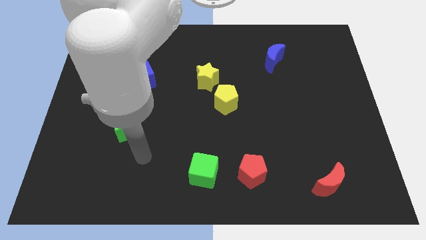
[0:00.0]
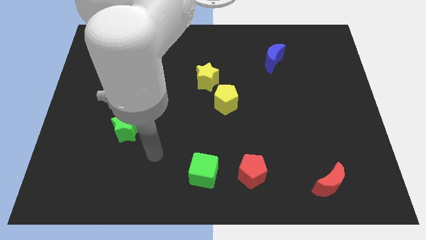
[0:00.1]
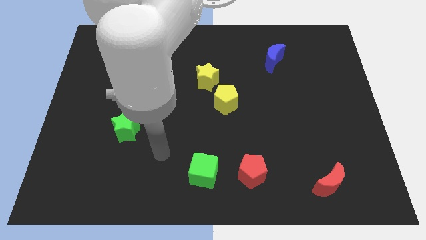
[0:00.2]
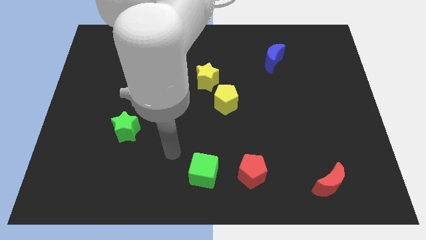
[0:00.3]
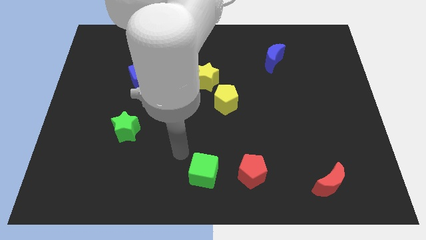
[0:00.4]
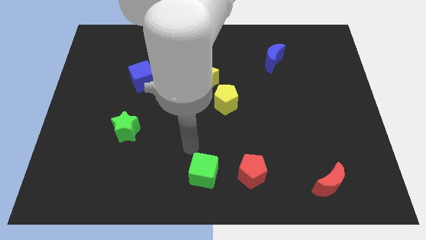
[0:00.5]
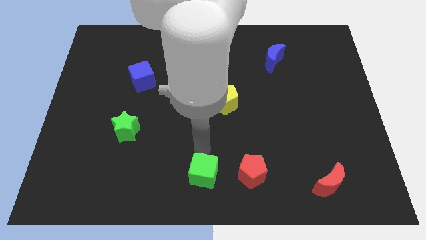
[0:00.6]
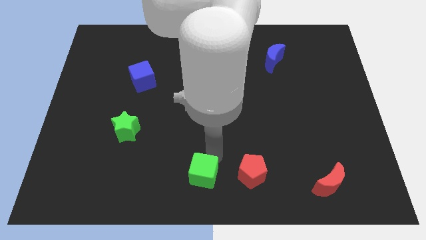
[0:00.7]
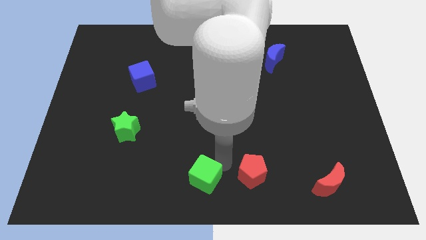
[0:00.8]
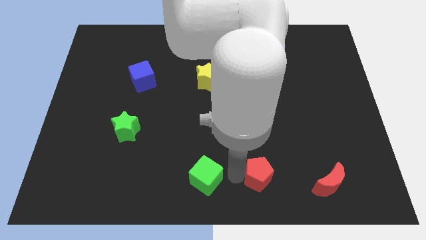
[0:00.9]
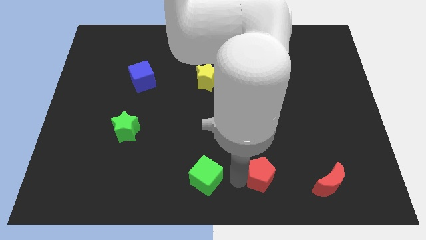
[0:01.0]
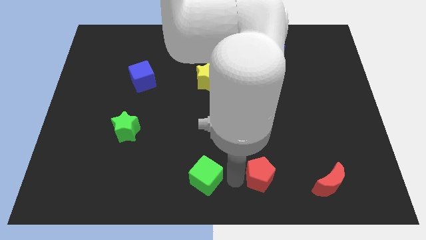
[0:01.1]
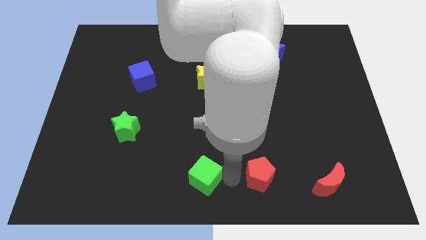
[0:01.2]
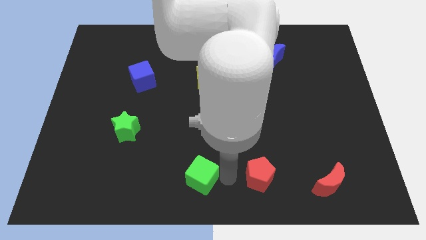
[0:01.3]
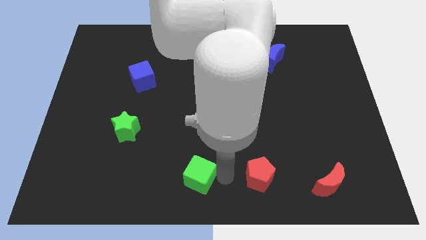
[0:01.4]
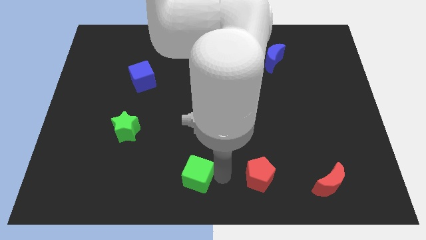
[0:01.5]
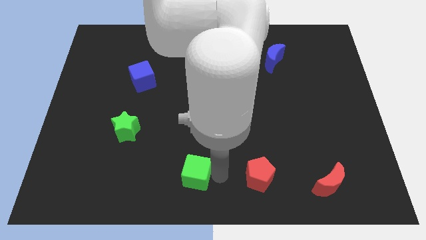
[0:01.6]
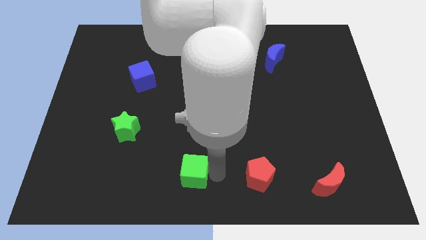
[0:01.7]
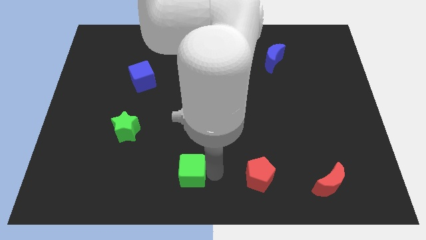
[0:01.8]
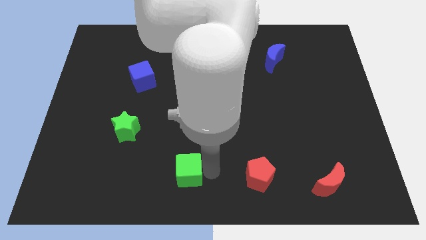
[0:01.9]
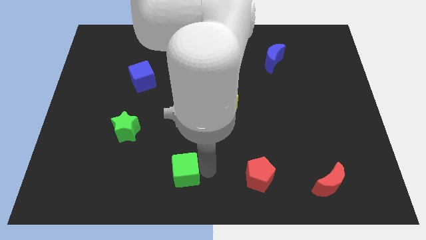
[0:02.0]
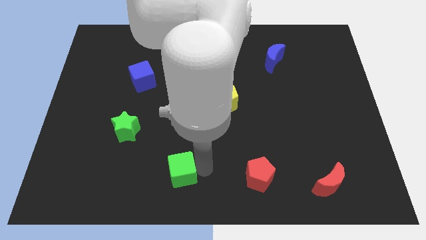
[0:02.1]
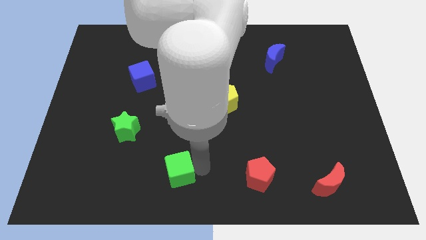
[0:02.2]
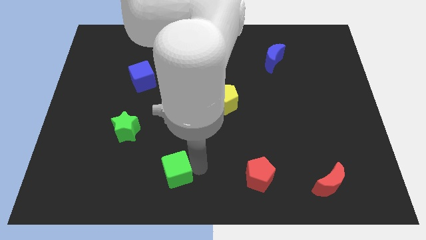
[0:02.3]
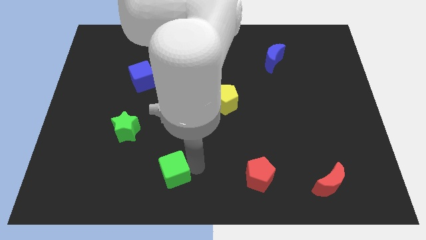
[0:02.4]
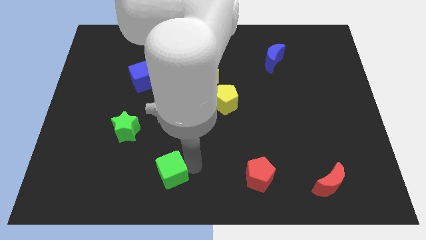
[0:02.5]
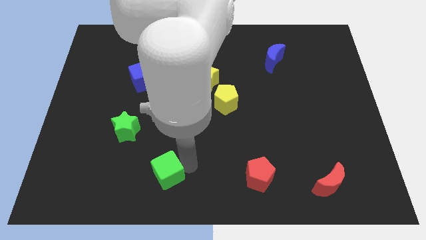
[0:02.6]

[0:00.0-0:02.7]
push the green cube left a bit

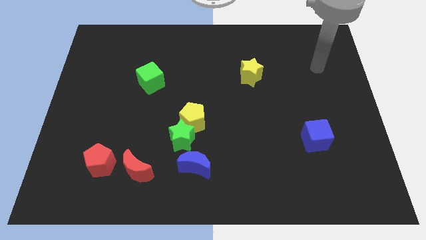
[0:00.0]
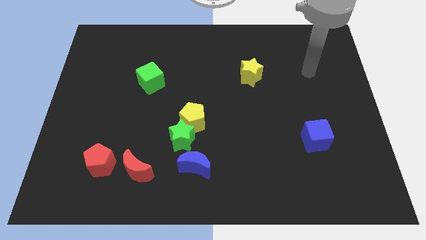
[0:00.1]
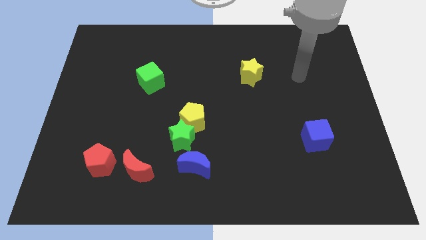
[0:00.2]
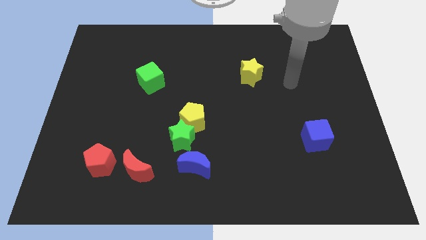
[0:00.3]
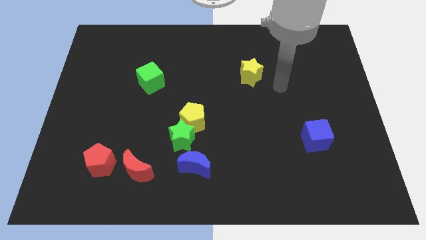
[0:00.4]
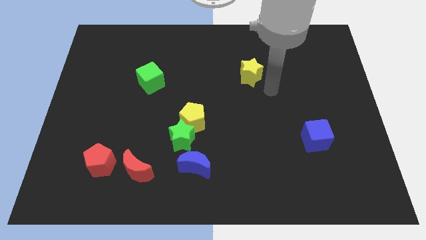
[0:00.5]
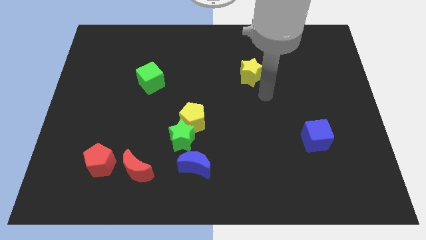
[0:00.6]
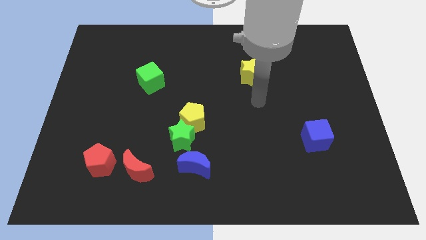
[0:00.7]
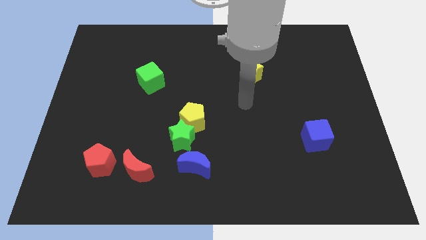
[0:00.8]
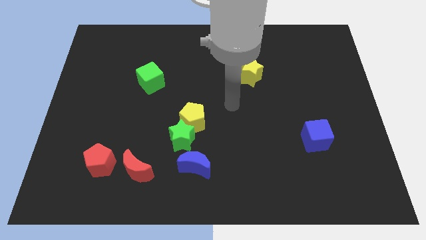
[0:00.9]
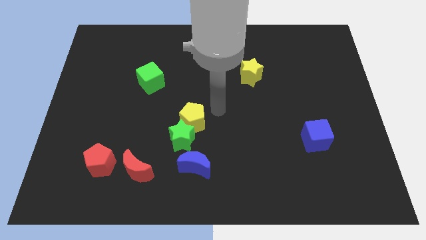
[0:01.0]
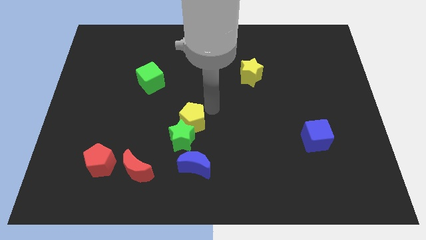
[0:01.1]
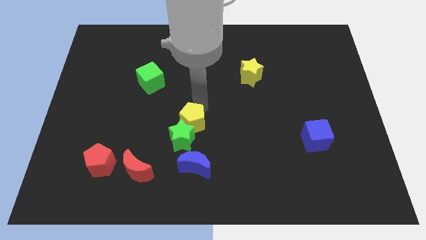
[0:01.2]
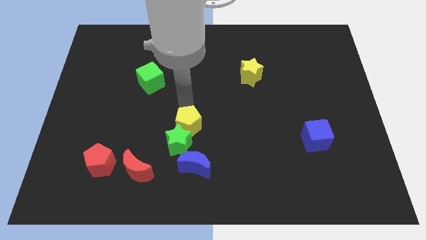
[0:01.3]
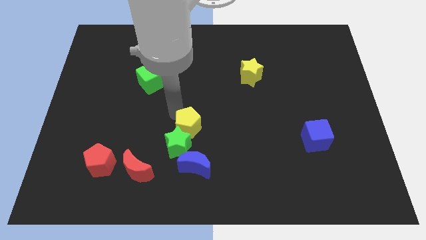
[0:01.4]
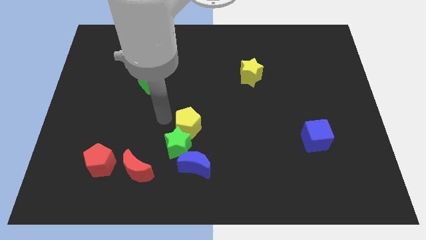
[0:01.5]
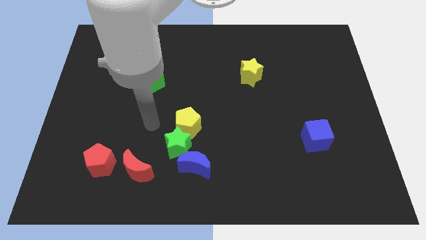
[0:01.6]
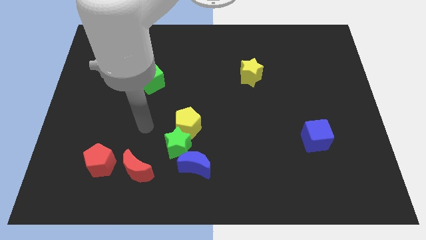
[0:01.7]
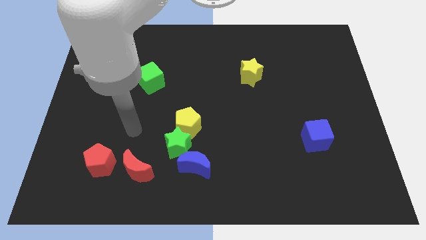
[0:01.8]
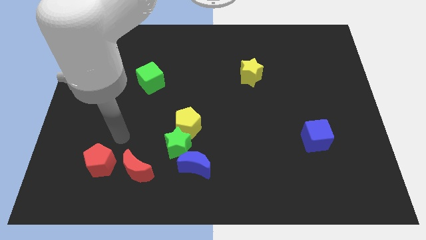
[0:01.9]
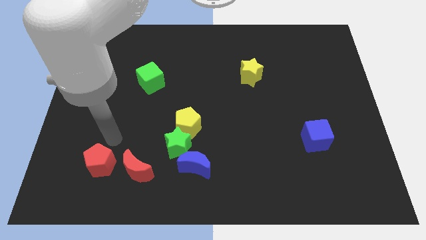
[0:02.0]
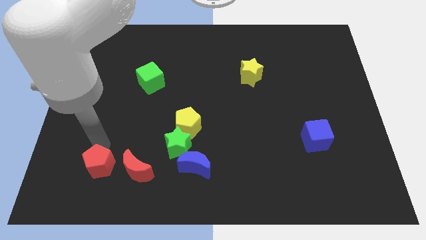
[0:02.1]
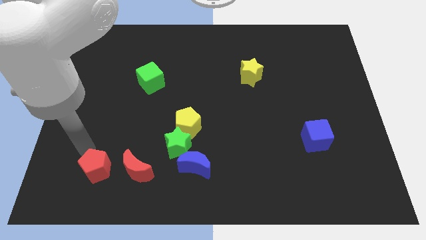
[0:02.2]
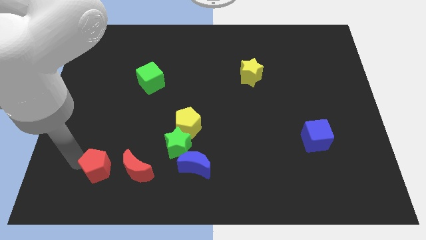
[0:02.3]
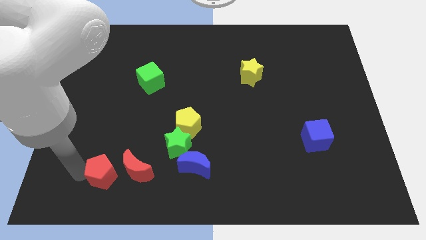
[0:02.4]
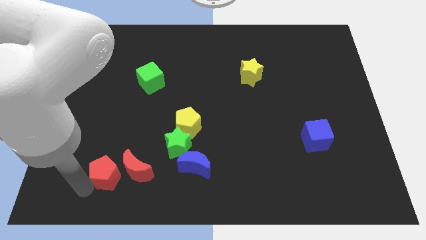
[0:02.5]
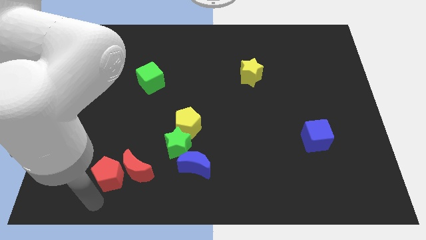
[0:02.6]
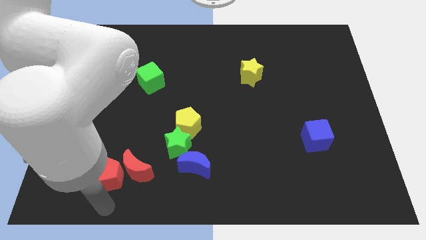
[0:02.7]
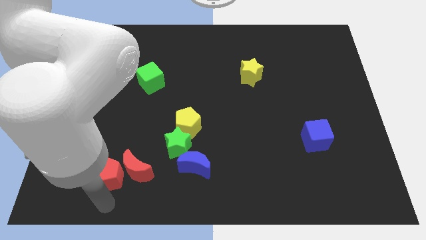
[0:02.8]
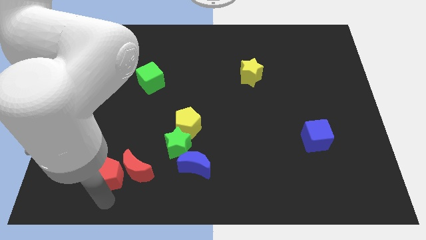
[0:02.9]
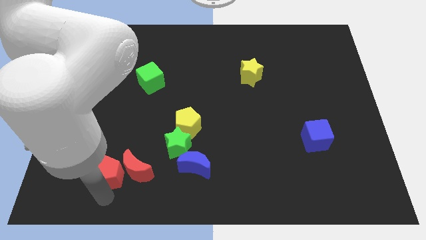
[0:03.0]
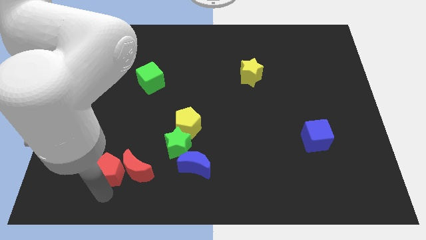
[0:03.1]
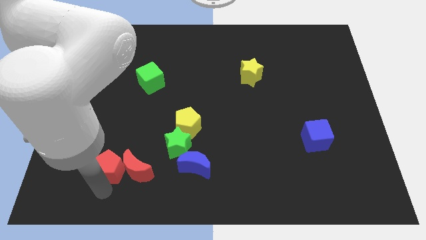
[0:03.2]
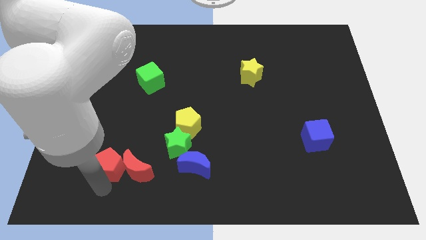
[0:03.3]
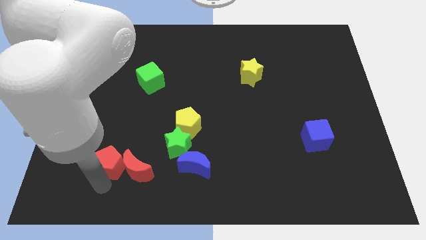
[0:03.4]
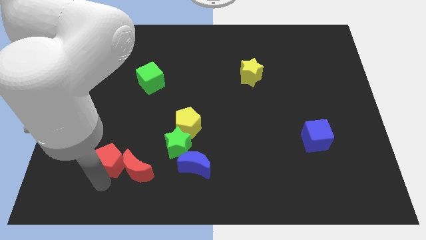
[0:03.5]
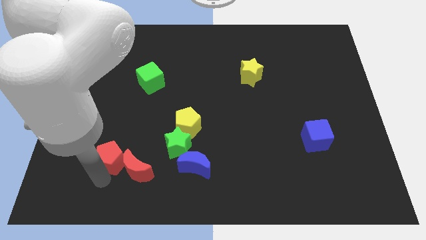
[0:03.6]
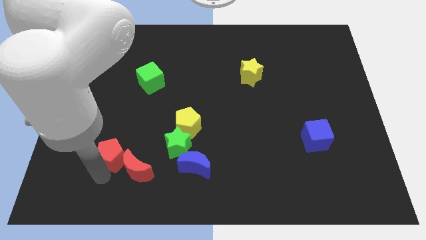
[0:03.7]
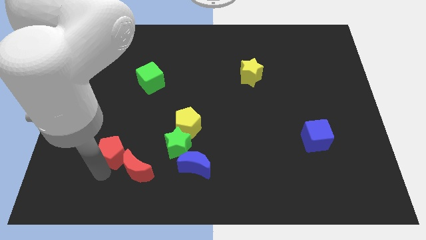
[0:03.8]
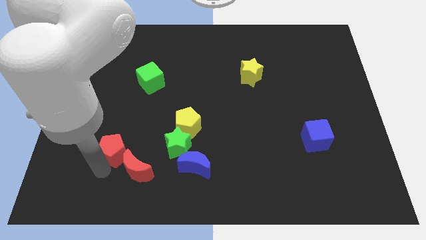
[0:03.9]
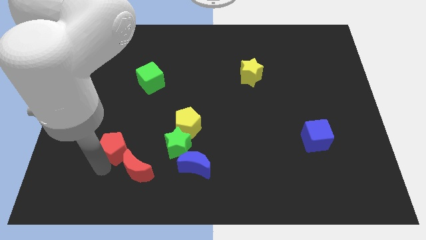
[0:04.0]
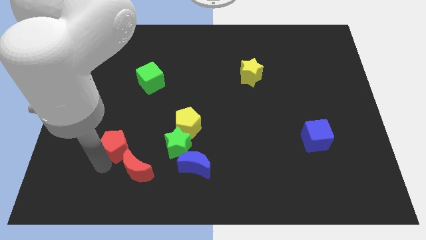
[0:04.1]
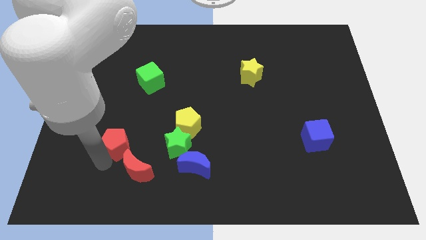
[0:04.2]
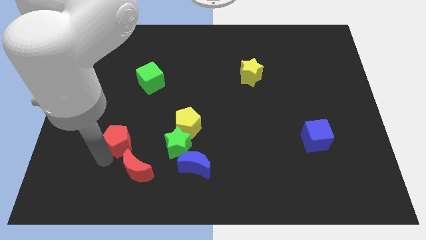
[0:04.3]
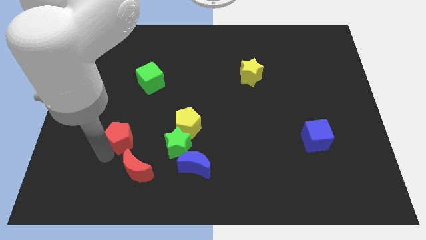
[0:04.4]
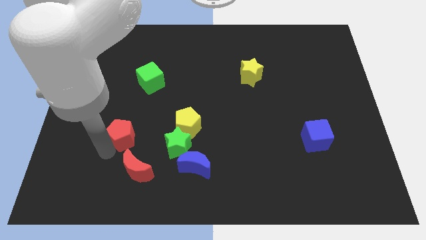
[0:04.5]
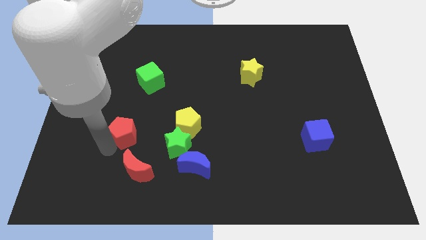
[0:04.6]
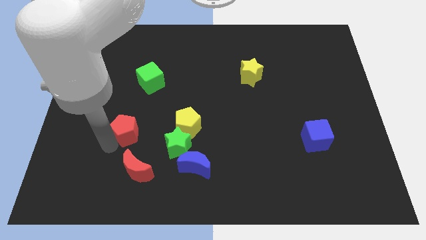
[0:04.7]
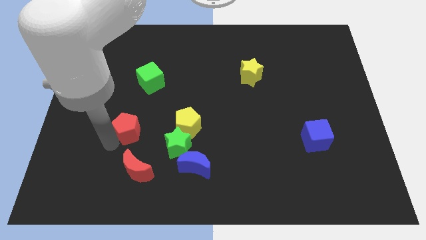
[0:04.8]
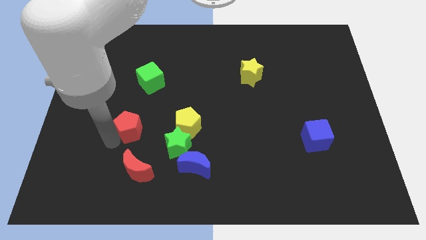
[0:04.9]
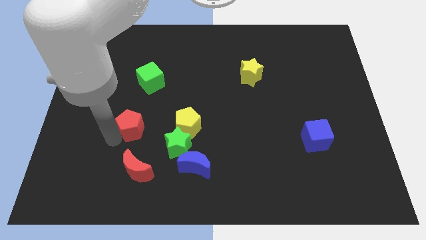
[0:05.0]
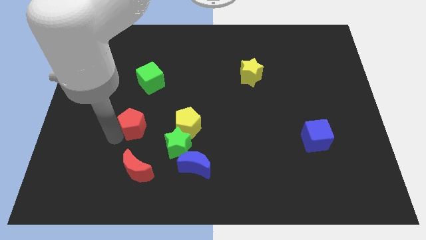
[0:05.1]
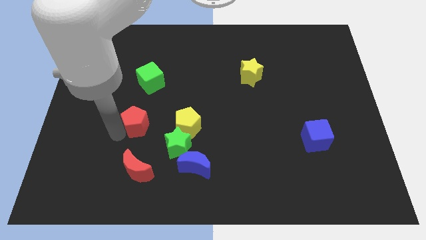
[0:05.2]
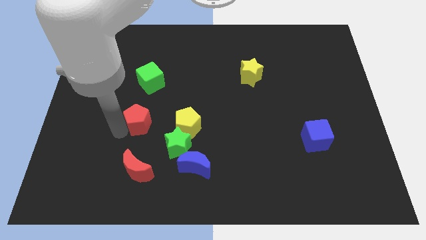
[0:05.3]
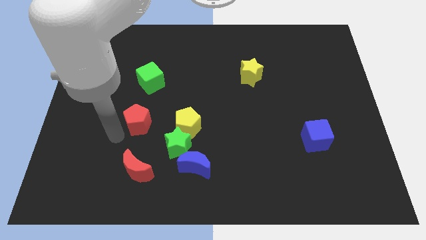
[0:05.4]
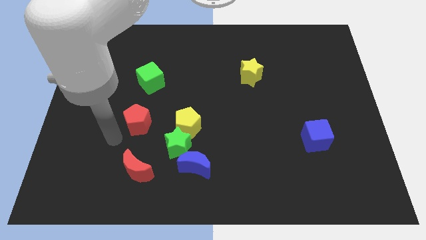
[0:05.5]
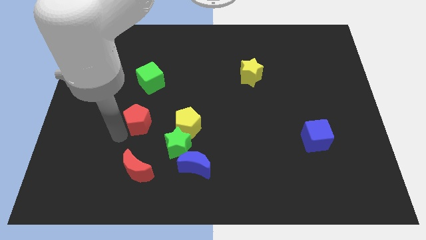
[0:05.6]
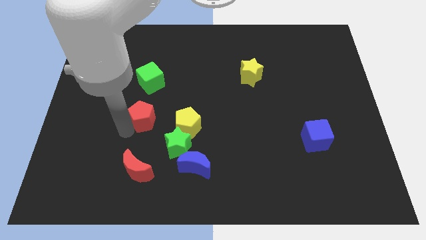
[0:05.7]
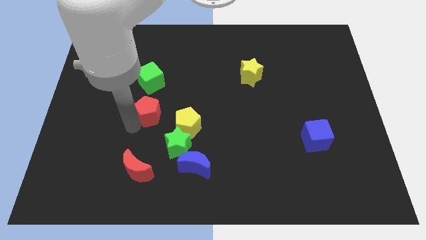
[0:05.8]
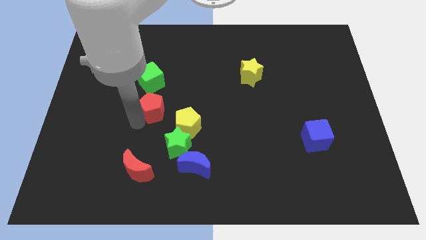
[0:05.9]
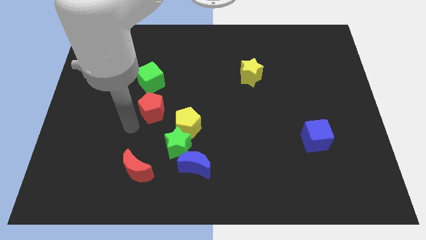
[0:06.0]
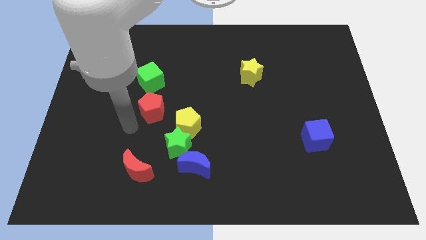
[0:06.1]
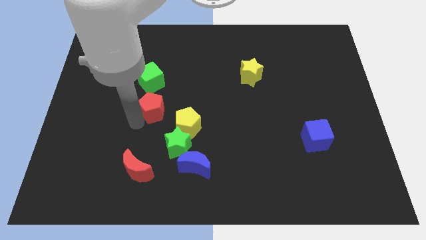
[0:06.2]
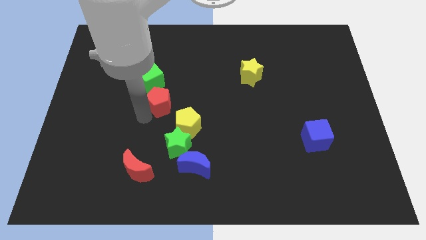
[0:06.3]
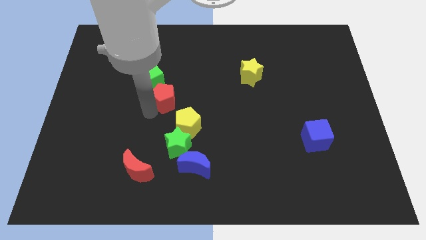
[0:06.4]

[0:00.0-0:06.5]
slide the red pentagon upwards and to the right diagonally
